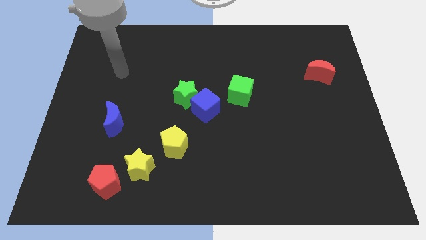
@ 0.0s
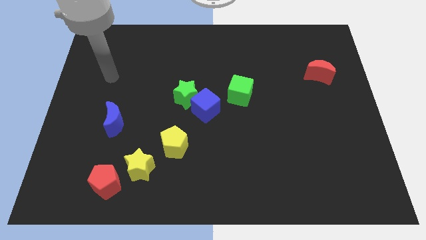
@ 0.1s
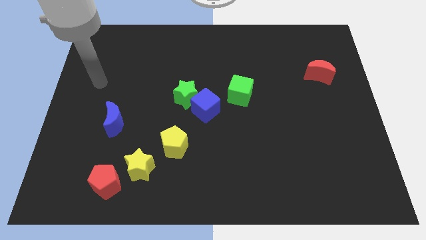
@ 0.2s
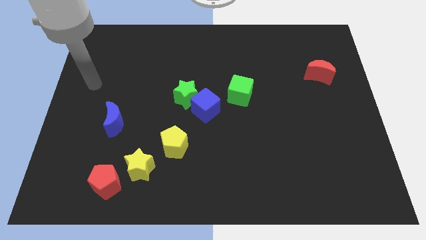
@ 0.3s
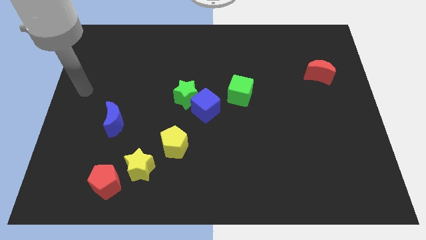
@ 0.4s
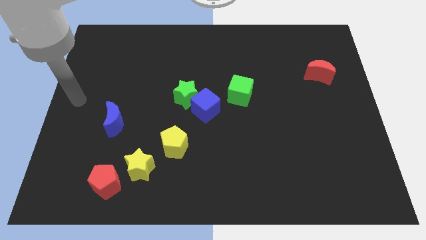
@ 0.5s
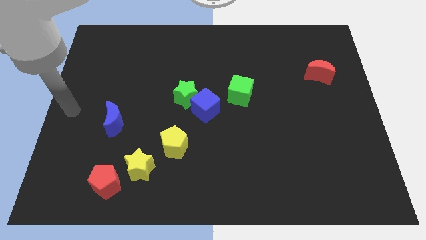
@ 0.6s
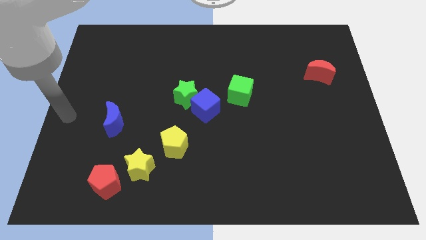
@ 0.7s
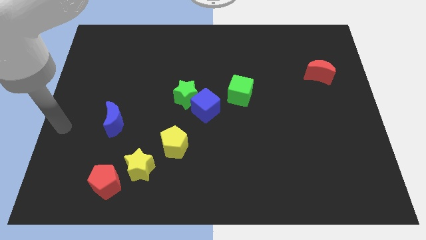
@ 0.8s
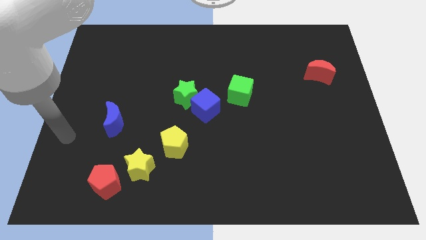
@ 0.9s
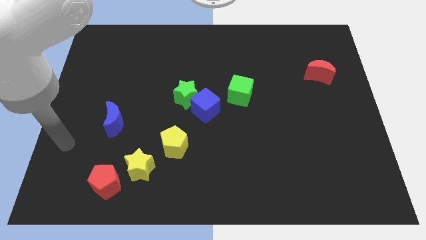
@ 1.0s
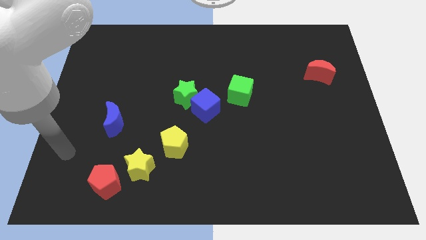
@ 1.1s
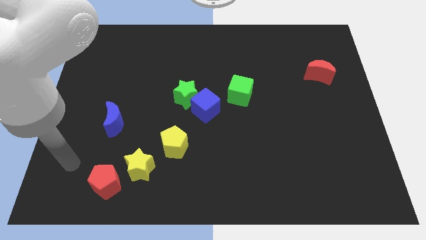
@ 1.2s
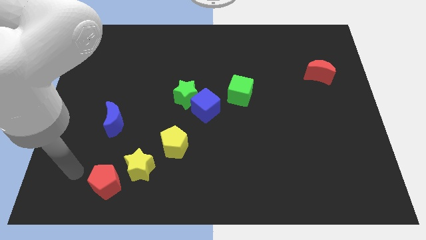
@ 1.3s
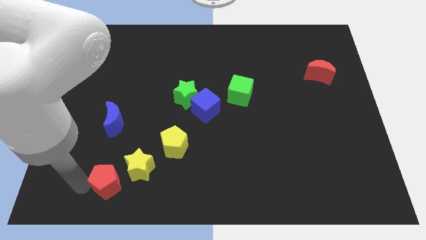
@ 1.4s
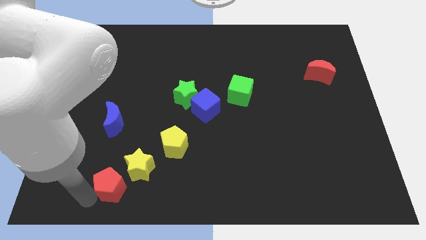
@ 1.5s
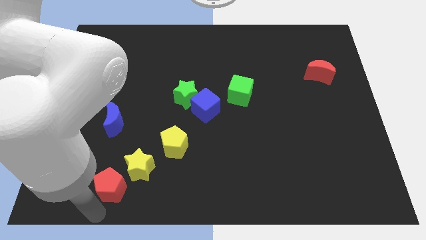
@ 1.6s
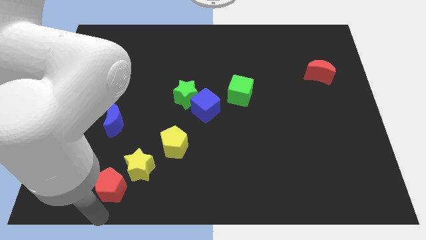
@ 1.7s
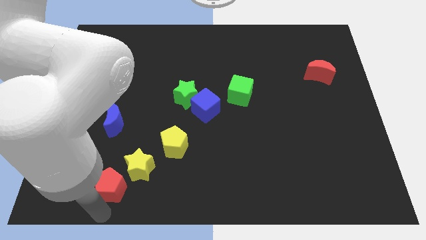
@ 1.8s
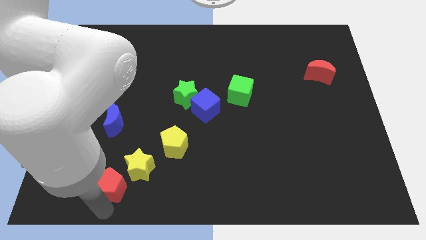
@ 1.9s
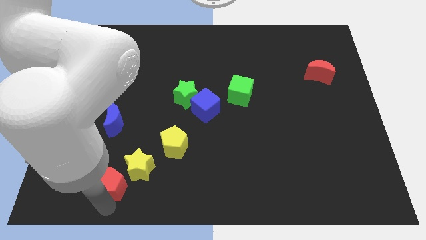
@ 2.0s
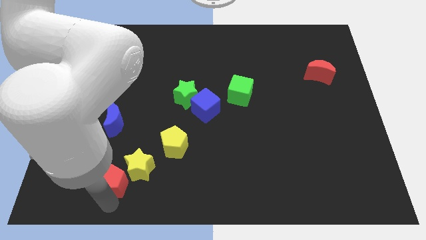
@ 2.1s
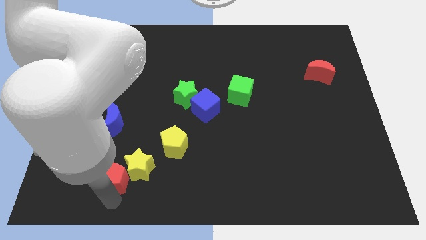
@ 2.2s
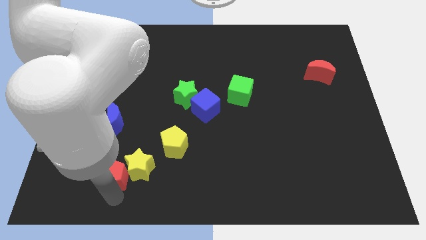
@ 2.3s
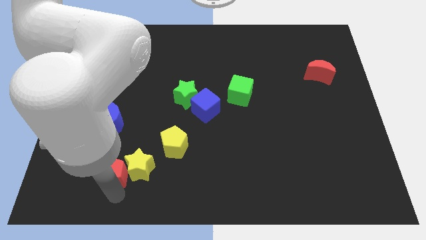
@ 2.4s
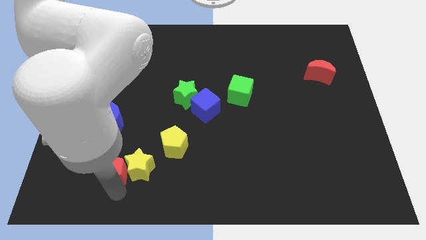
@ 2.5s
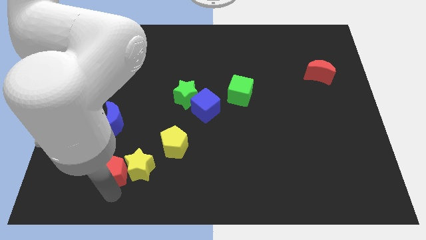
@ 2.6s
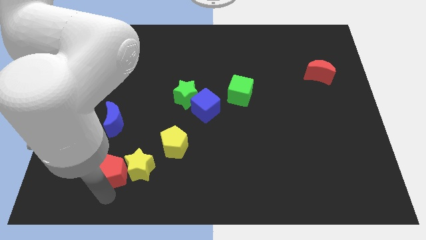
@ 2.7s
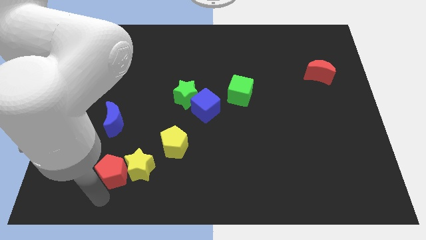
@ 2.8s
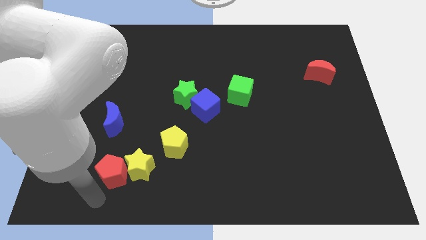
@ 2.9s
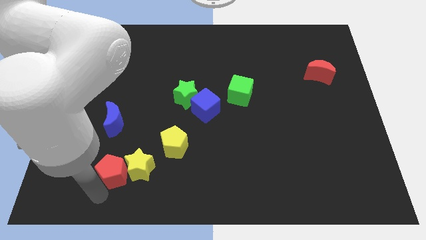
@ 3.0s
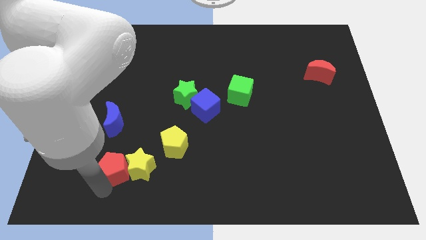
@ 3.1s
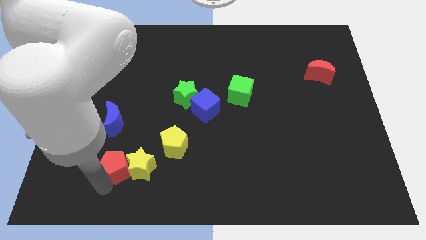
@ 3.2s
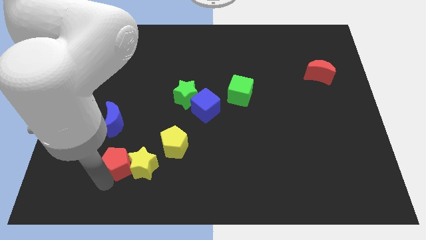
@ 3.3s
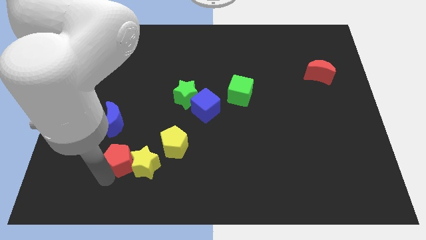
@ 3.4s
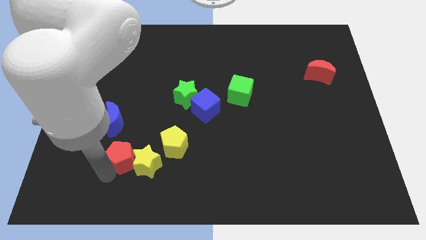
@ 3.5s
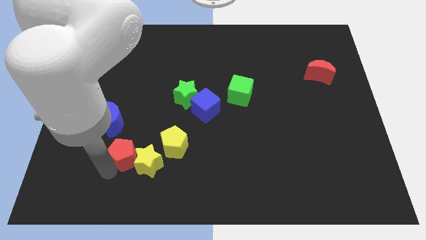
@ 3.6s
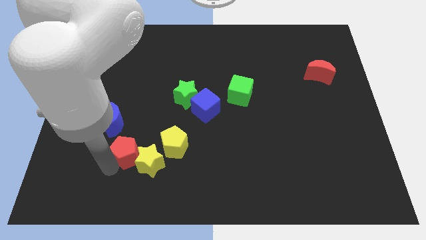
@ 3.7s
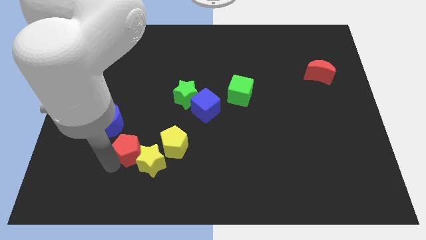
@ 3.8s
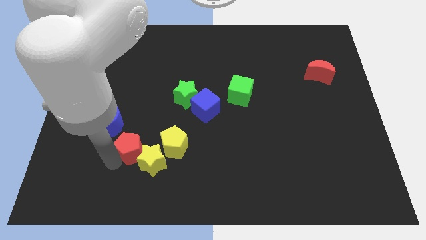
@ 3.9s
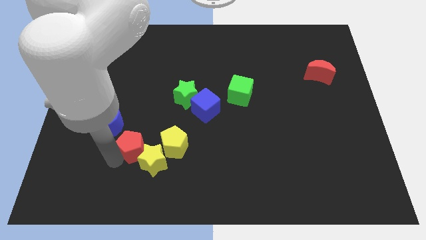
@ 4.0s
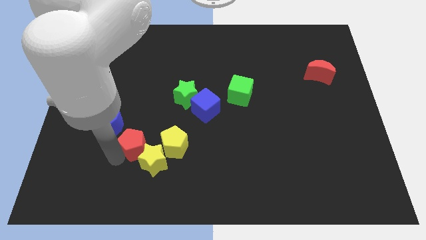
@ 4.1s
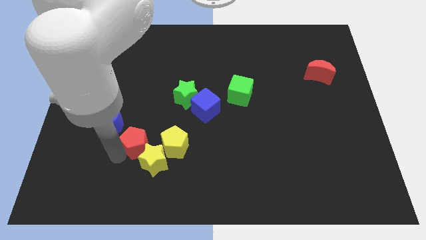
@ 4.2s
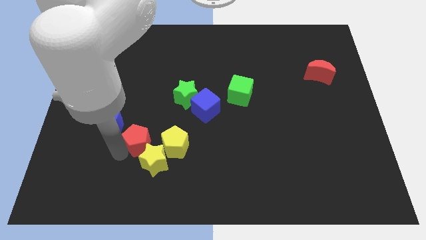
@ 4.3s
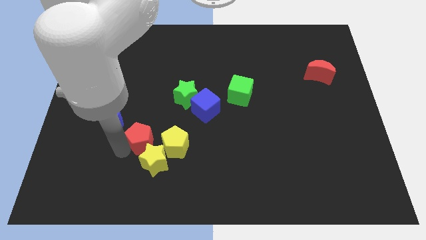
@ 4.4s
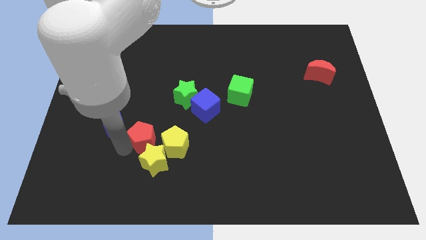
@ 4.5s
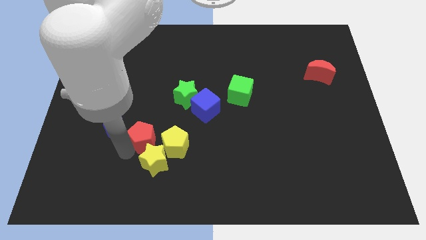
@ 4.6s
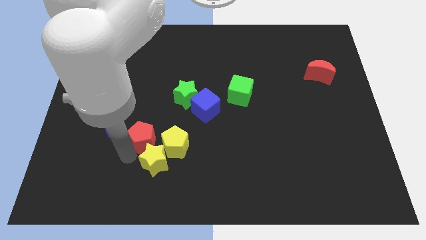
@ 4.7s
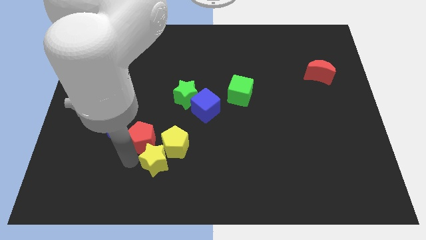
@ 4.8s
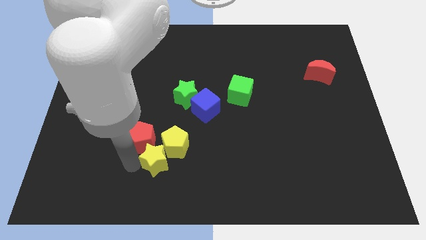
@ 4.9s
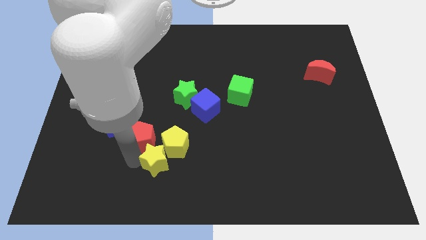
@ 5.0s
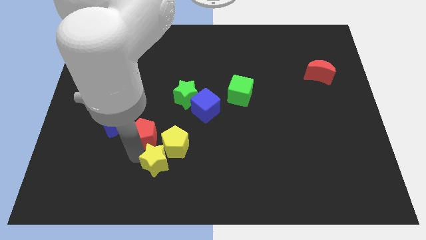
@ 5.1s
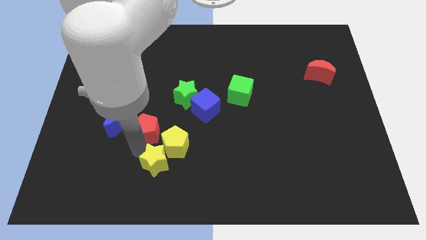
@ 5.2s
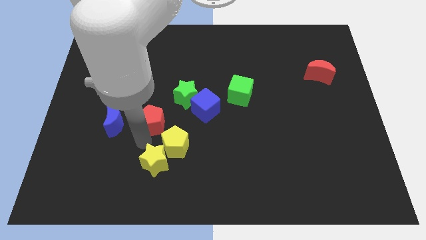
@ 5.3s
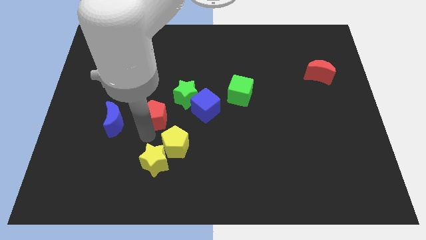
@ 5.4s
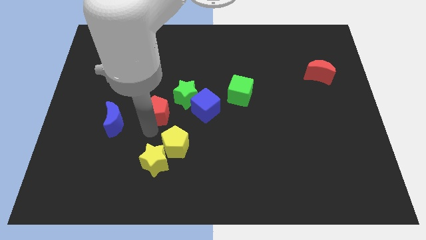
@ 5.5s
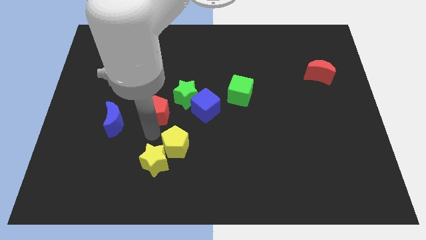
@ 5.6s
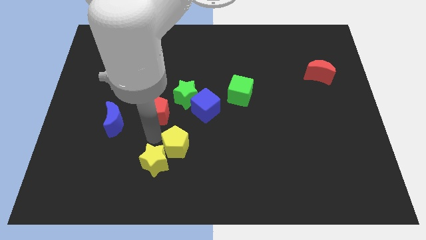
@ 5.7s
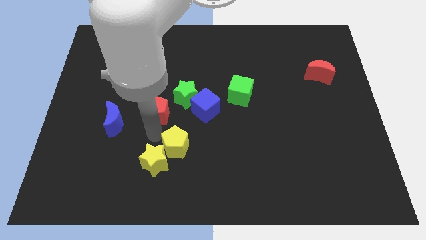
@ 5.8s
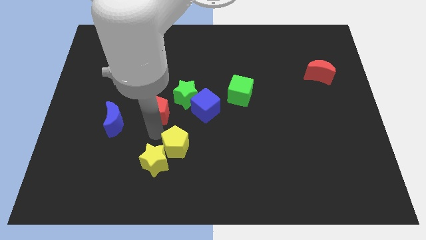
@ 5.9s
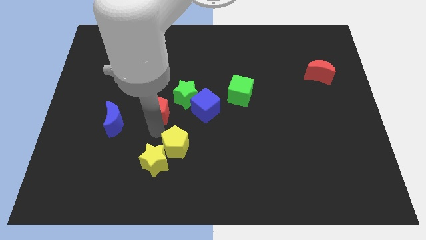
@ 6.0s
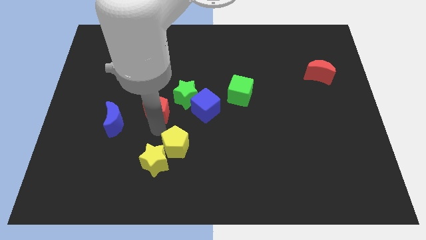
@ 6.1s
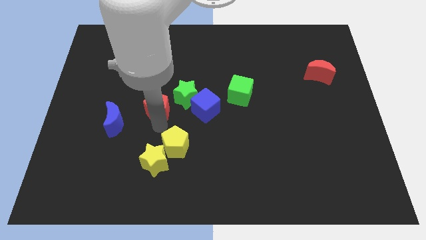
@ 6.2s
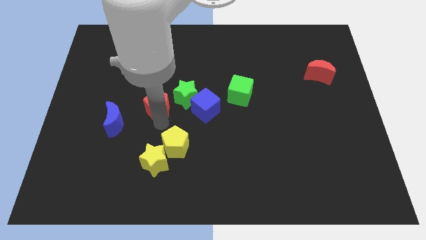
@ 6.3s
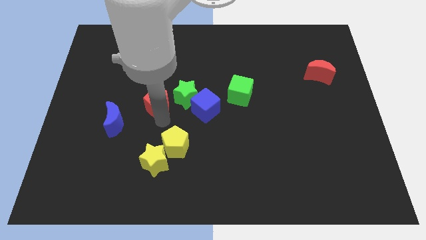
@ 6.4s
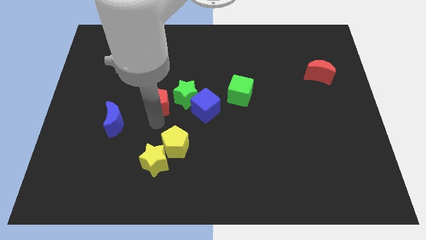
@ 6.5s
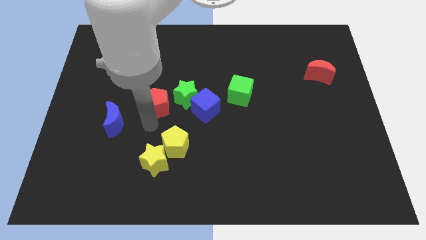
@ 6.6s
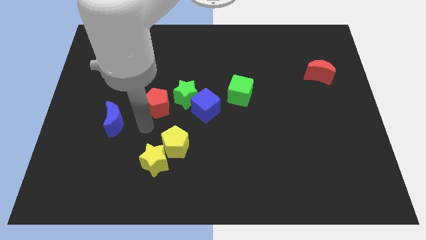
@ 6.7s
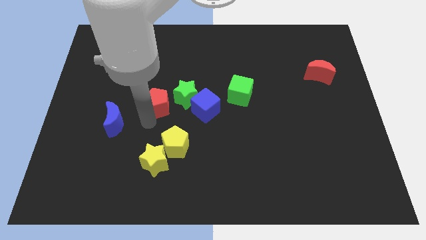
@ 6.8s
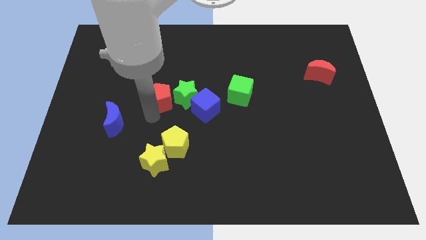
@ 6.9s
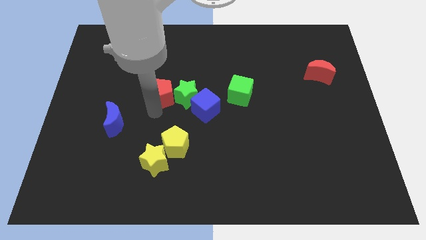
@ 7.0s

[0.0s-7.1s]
move the red pentagon to the top left of the blue cube
